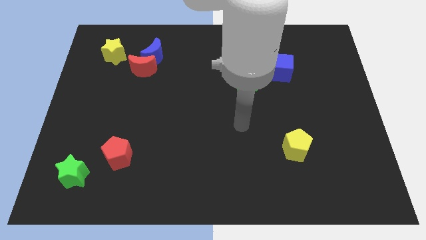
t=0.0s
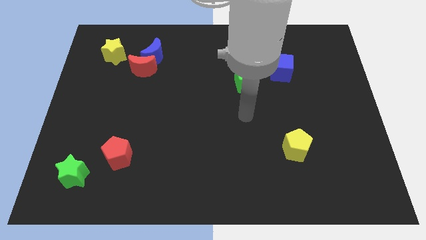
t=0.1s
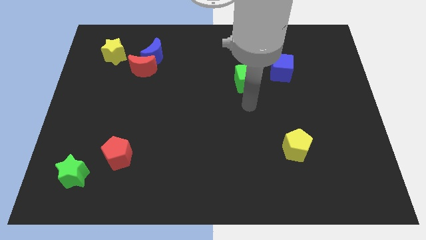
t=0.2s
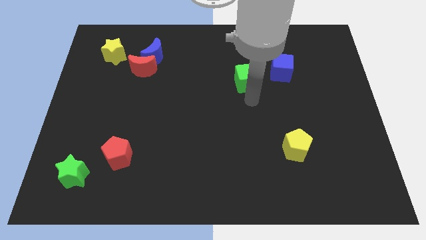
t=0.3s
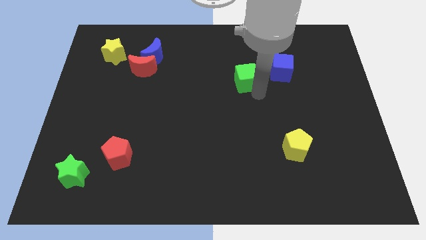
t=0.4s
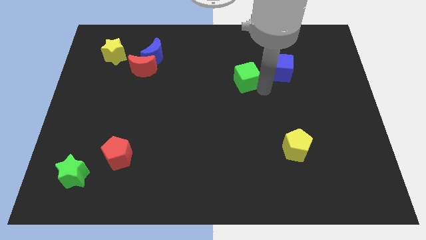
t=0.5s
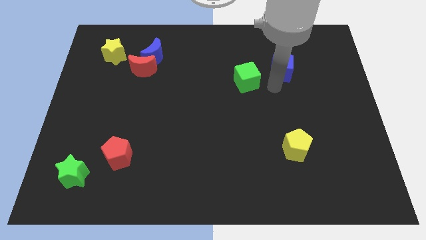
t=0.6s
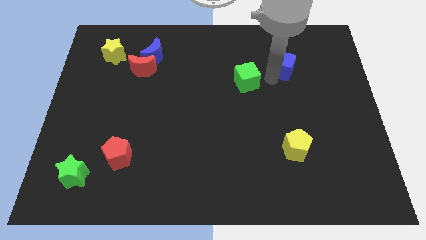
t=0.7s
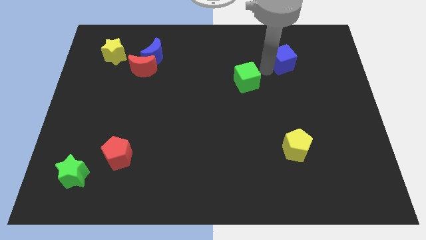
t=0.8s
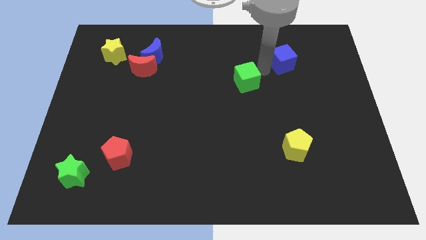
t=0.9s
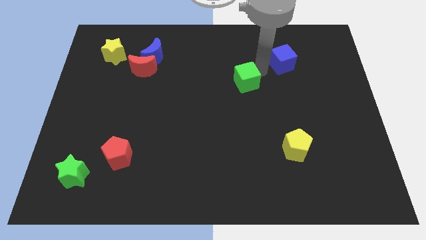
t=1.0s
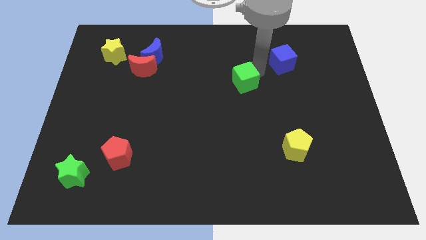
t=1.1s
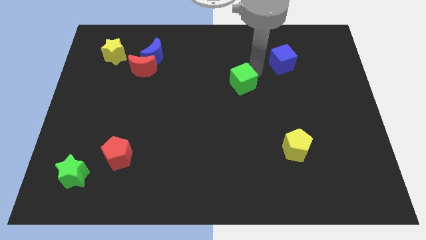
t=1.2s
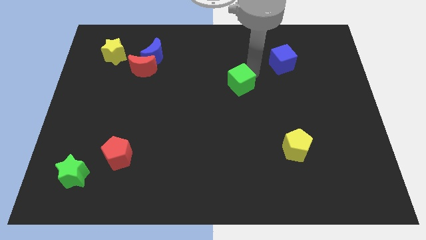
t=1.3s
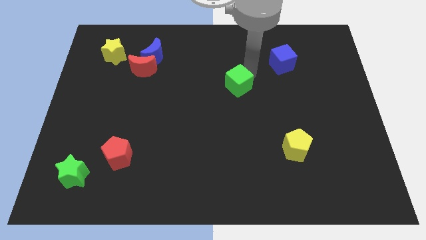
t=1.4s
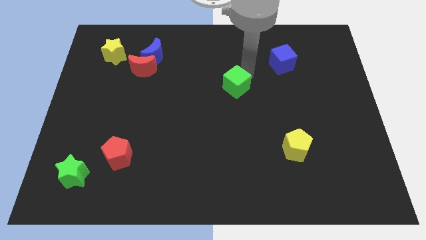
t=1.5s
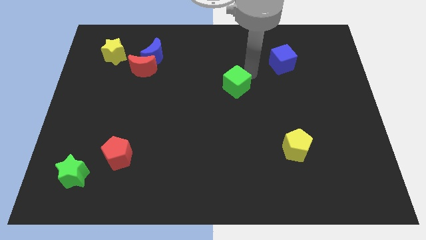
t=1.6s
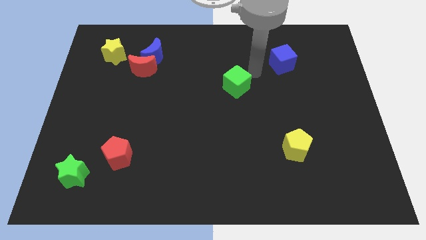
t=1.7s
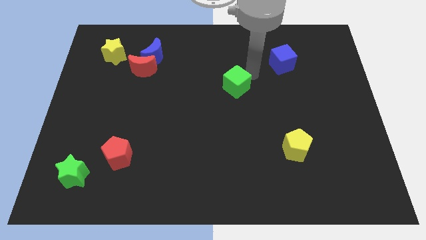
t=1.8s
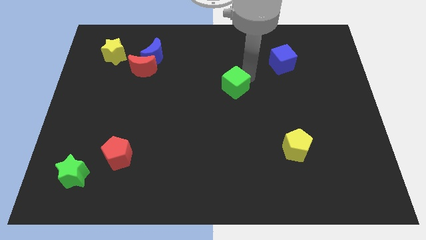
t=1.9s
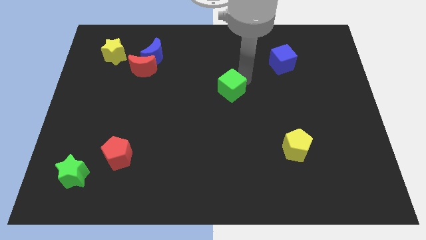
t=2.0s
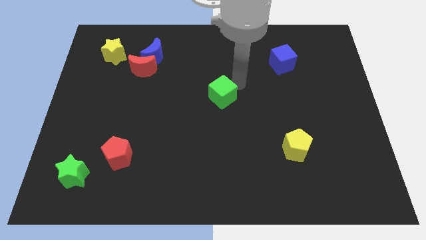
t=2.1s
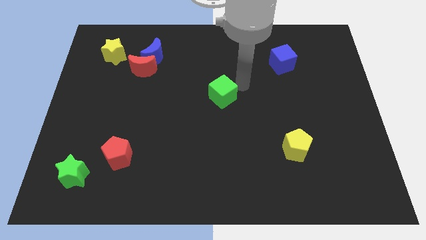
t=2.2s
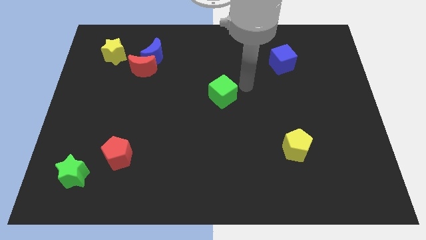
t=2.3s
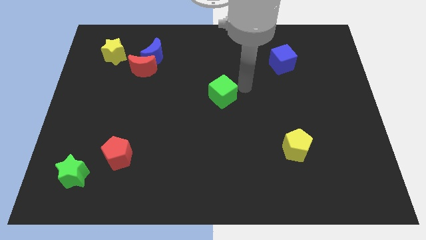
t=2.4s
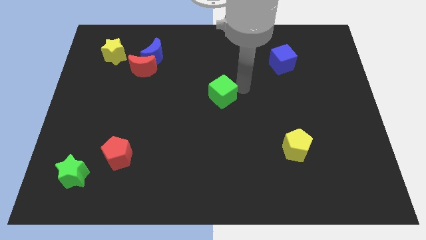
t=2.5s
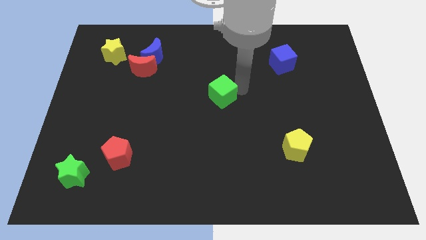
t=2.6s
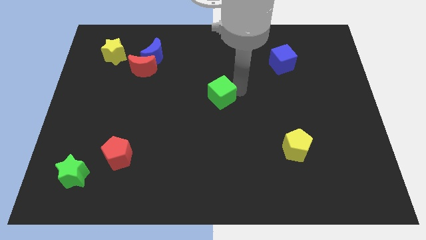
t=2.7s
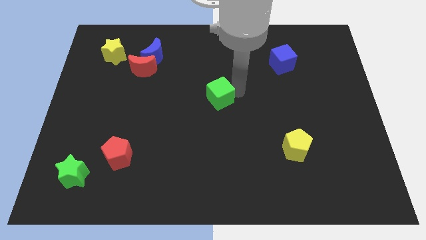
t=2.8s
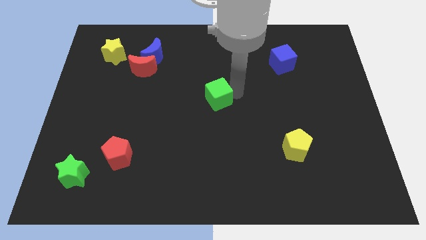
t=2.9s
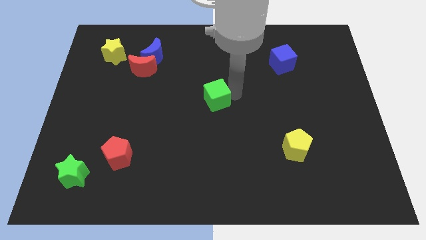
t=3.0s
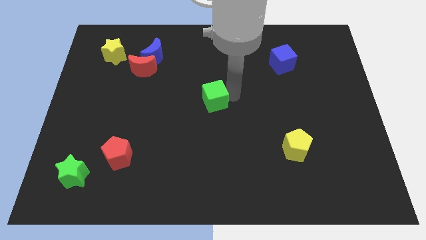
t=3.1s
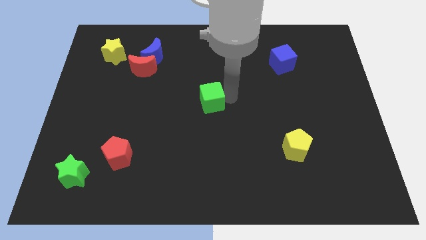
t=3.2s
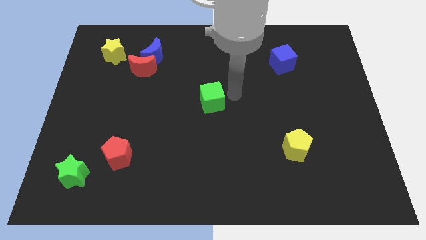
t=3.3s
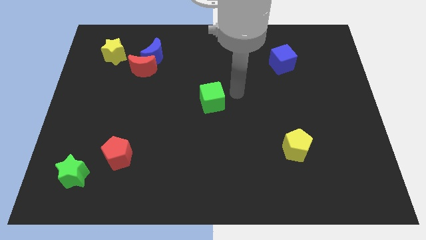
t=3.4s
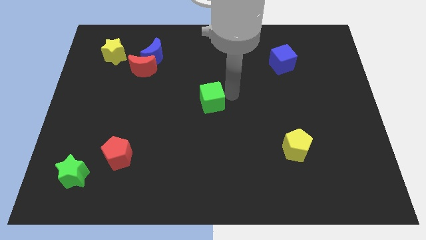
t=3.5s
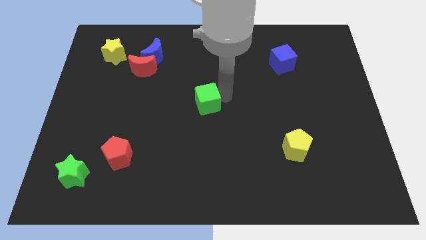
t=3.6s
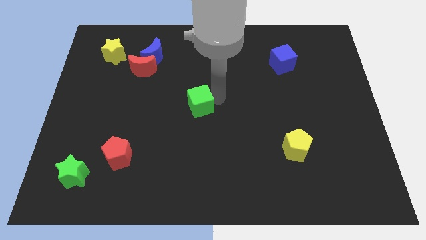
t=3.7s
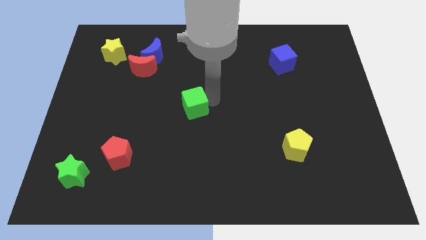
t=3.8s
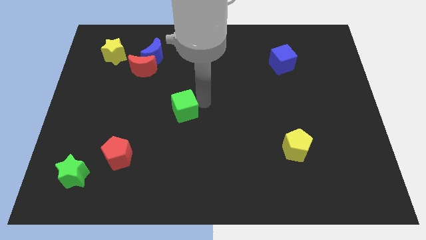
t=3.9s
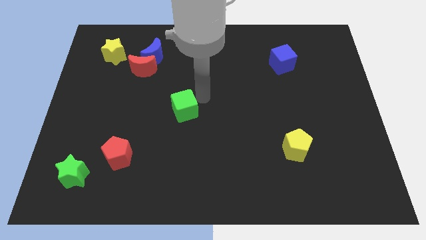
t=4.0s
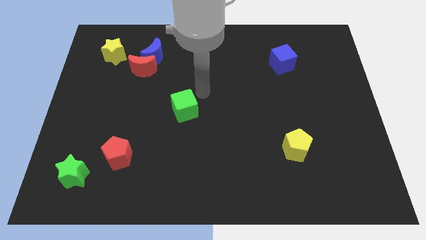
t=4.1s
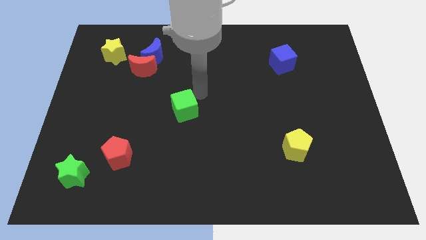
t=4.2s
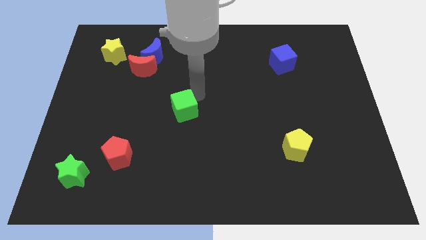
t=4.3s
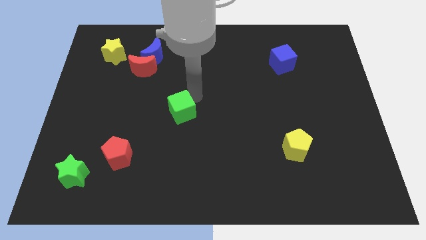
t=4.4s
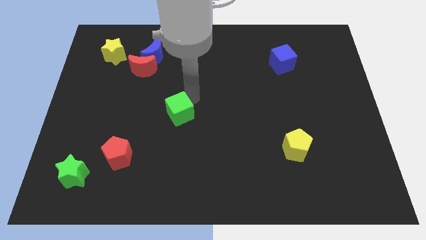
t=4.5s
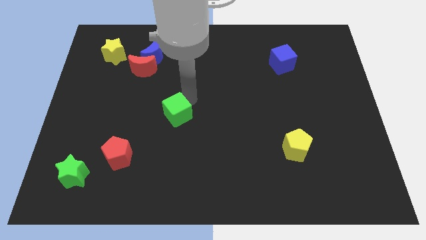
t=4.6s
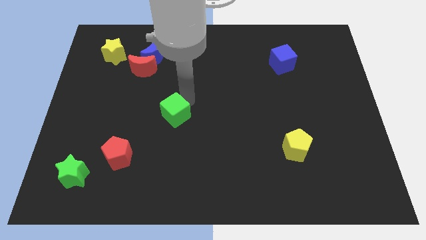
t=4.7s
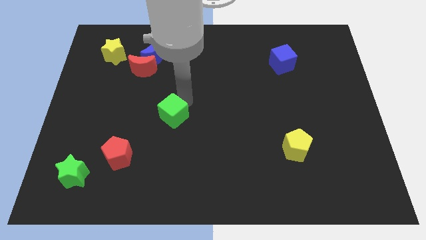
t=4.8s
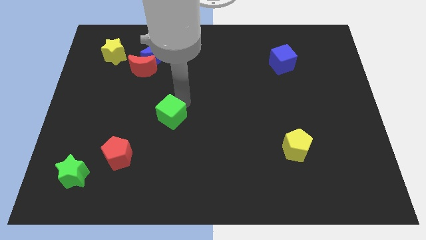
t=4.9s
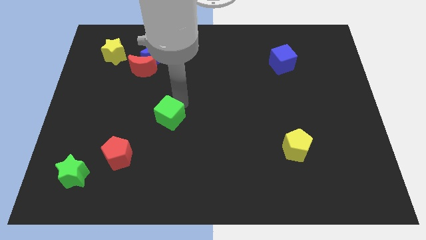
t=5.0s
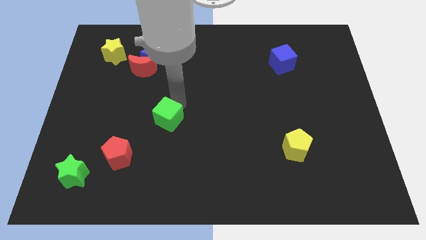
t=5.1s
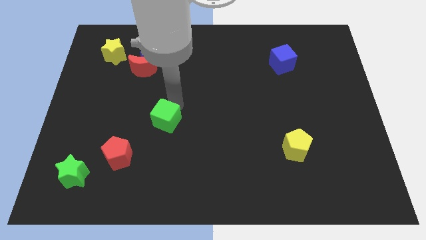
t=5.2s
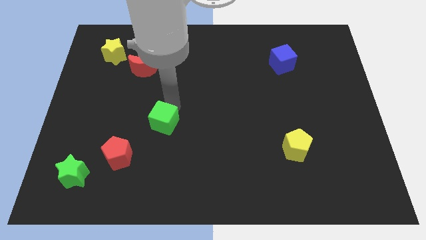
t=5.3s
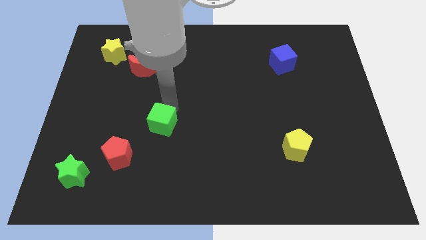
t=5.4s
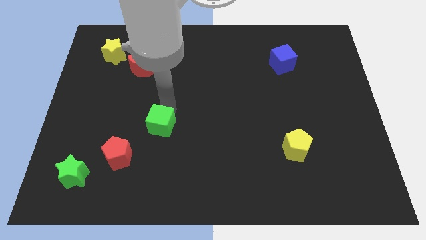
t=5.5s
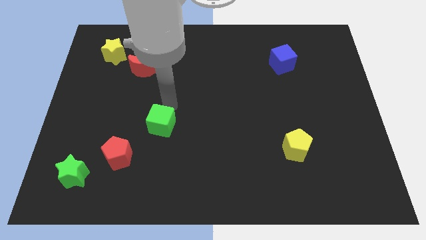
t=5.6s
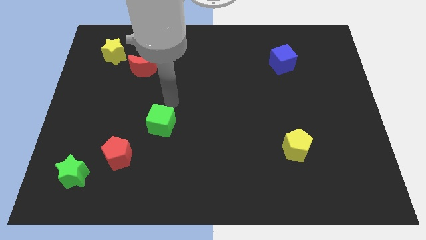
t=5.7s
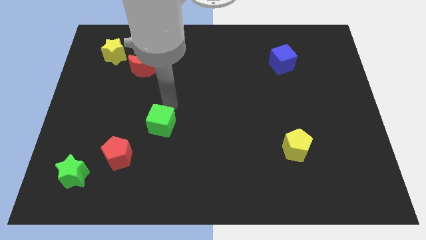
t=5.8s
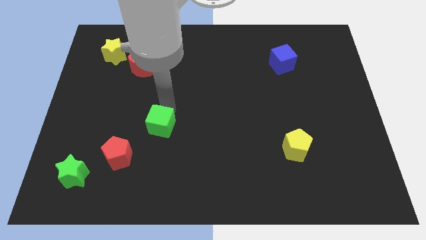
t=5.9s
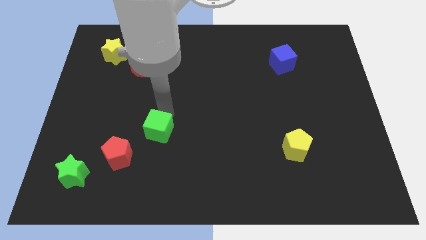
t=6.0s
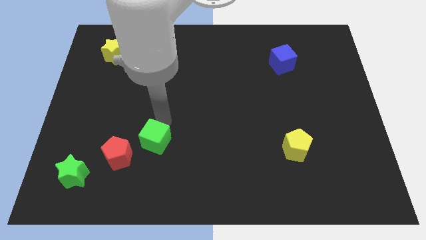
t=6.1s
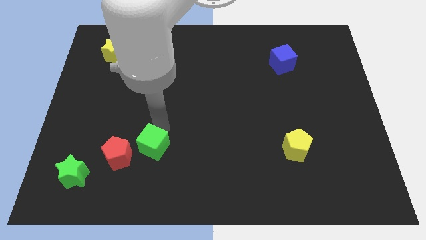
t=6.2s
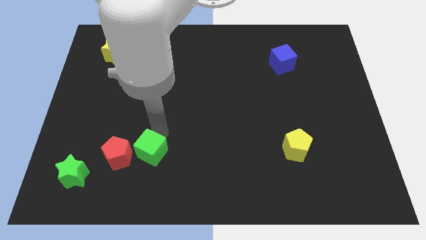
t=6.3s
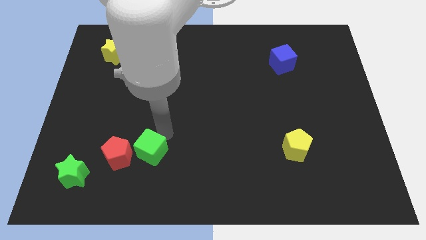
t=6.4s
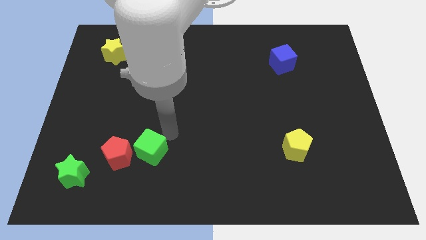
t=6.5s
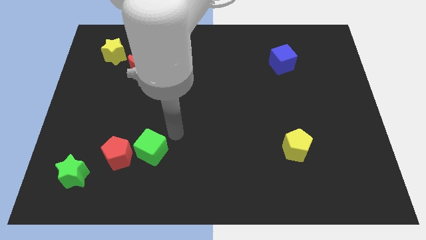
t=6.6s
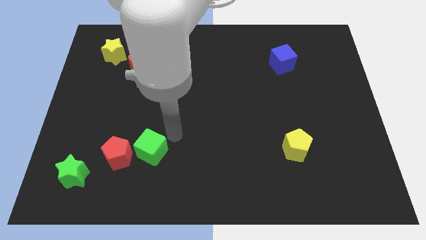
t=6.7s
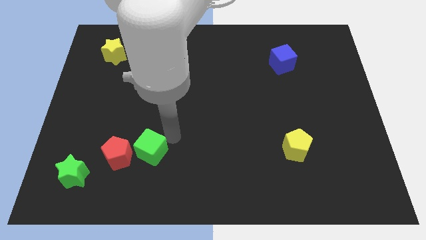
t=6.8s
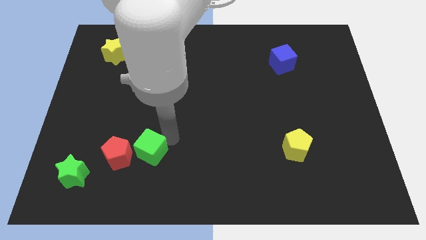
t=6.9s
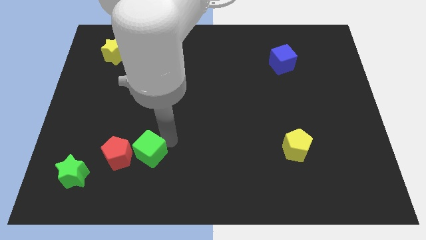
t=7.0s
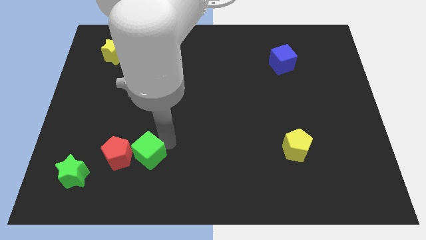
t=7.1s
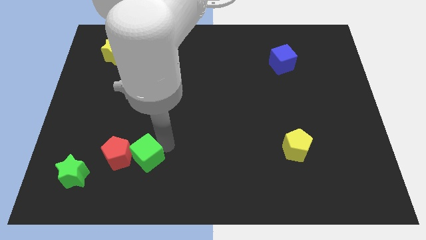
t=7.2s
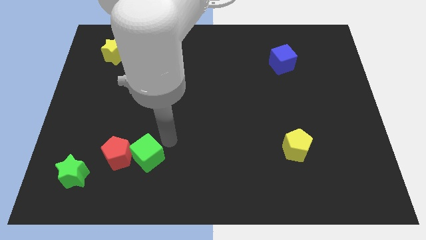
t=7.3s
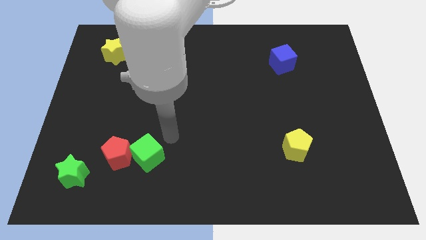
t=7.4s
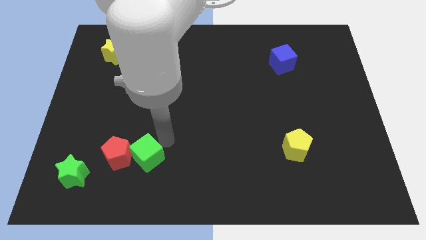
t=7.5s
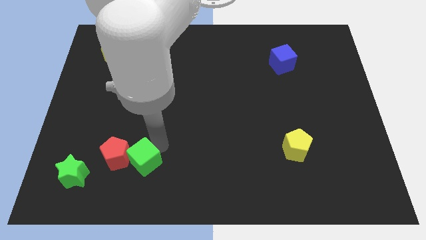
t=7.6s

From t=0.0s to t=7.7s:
move the green cube right of the green star
